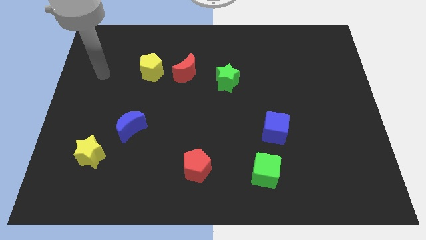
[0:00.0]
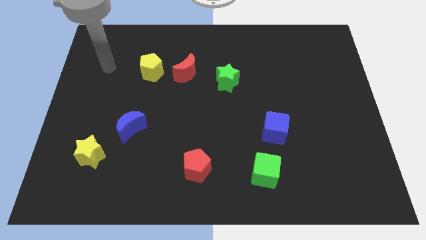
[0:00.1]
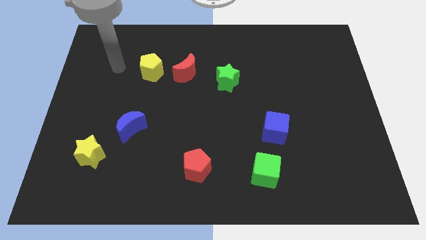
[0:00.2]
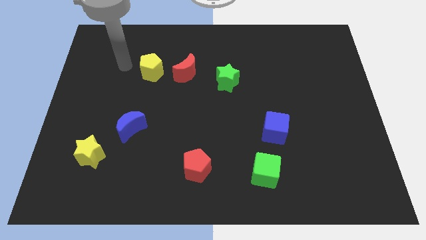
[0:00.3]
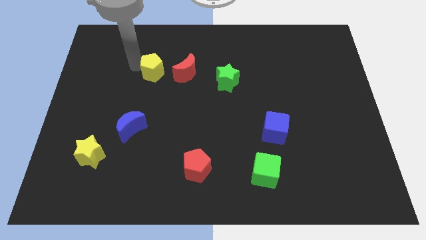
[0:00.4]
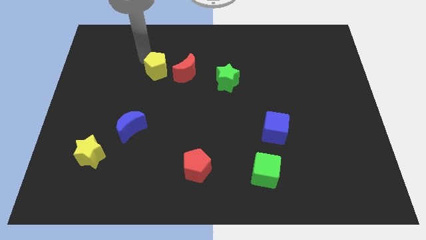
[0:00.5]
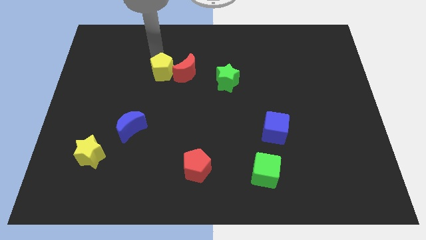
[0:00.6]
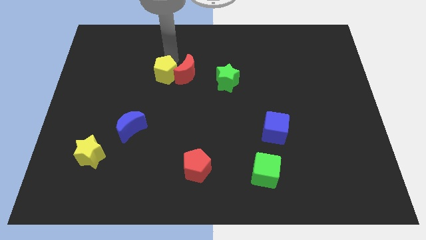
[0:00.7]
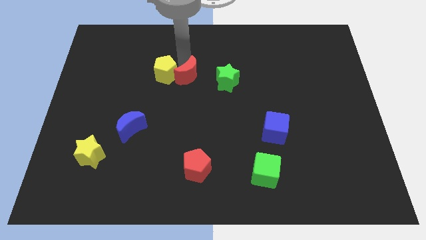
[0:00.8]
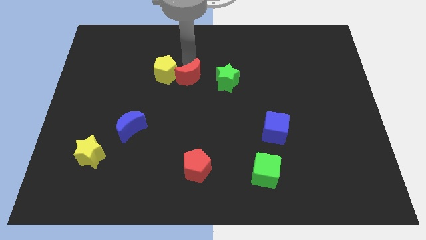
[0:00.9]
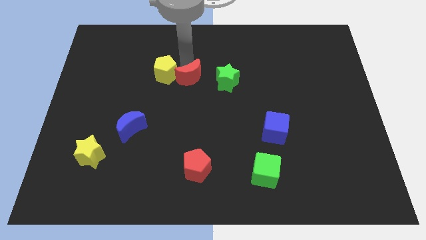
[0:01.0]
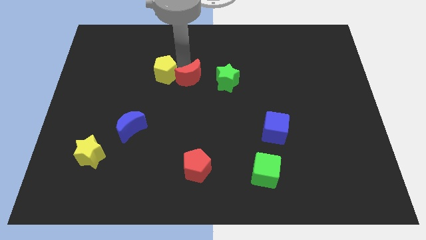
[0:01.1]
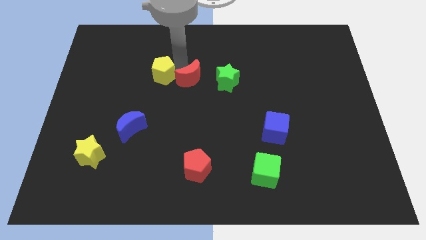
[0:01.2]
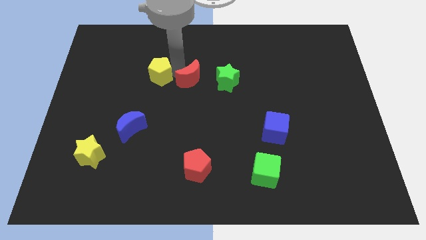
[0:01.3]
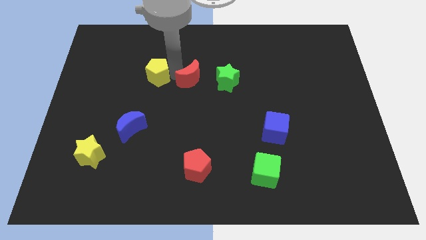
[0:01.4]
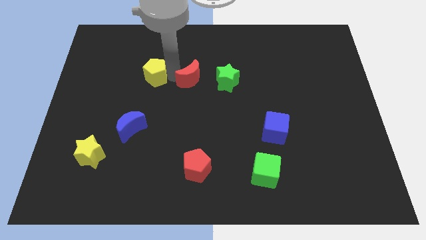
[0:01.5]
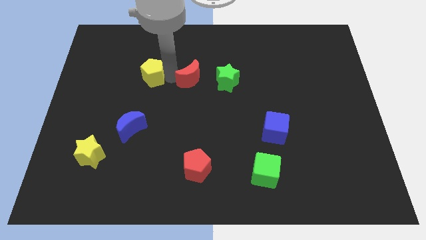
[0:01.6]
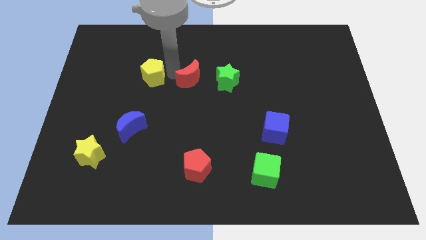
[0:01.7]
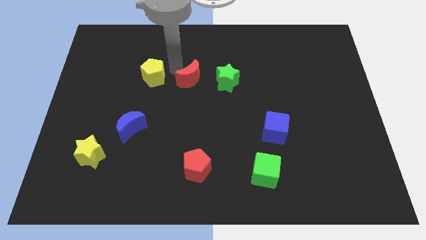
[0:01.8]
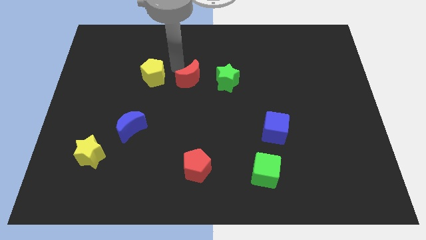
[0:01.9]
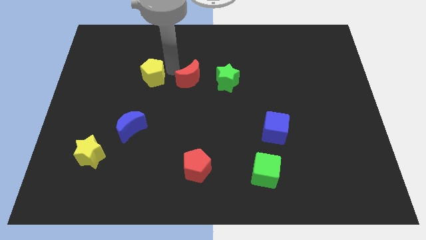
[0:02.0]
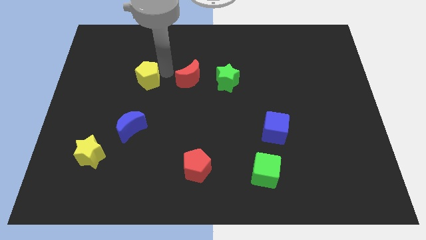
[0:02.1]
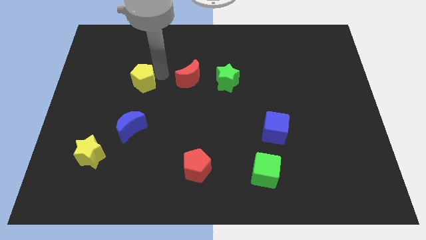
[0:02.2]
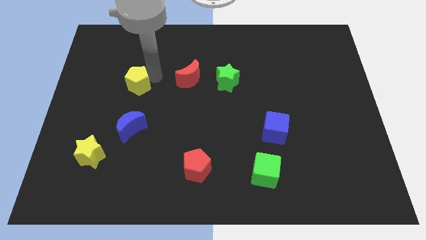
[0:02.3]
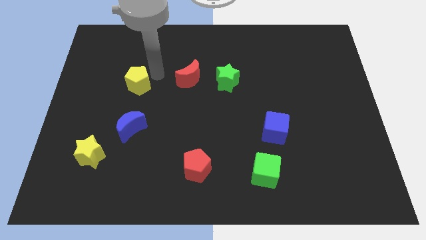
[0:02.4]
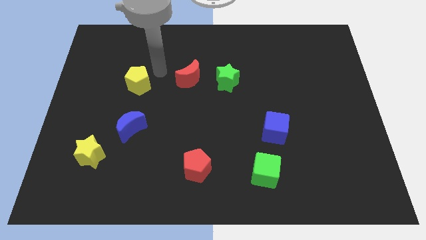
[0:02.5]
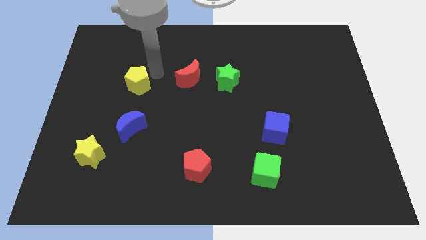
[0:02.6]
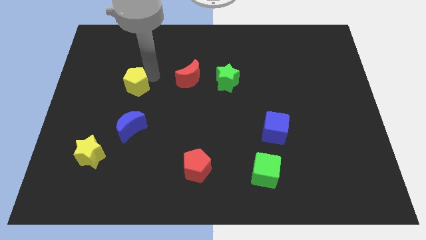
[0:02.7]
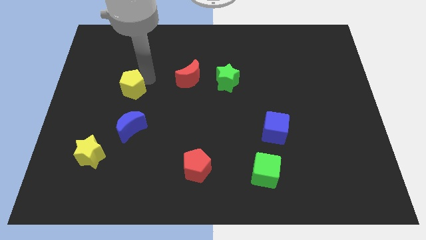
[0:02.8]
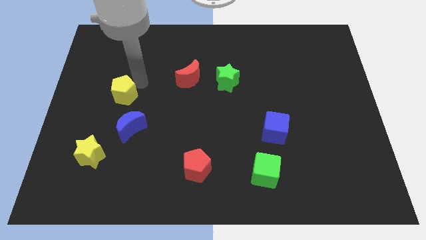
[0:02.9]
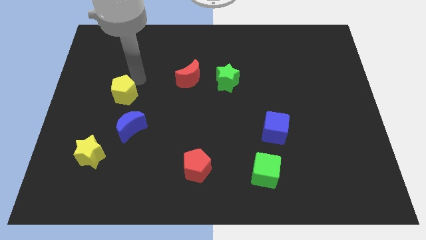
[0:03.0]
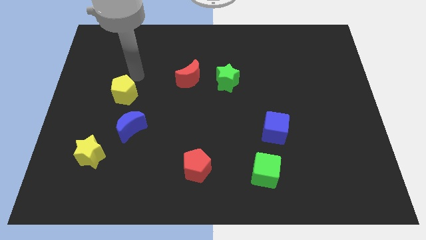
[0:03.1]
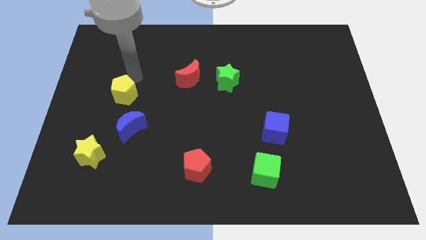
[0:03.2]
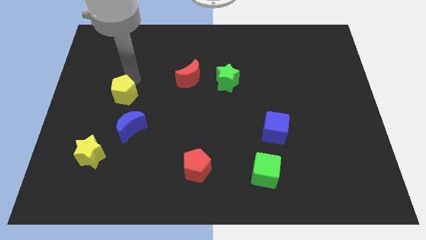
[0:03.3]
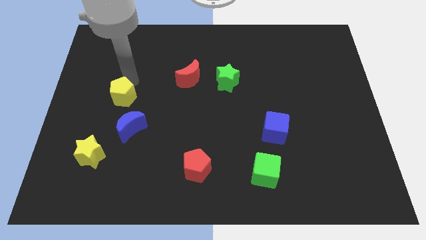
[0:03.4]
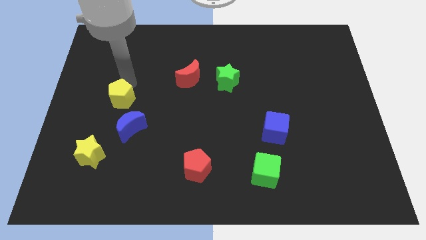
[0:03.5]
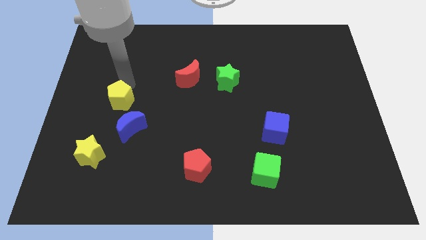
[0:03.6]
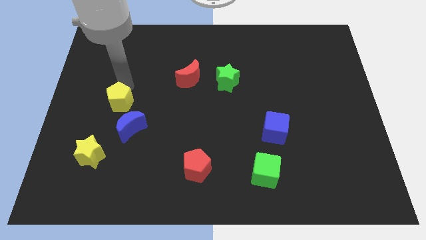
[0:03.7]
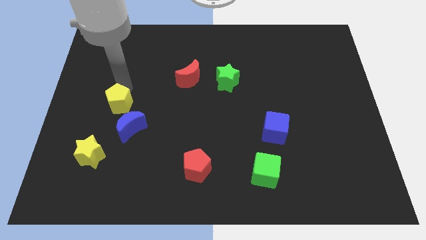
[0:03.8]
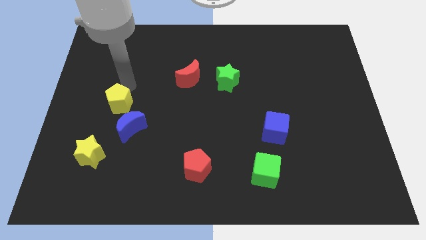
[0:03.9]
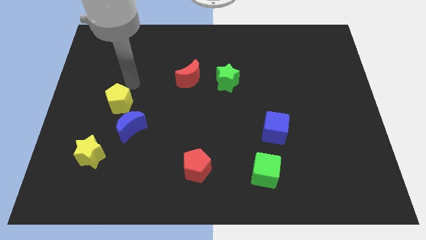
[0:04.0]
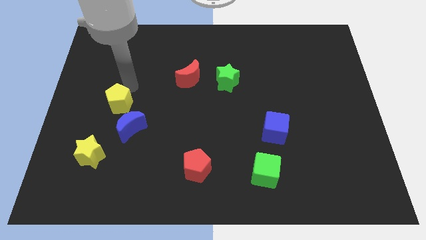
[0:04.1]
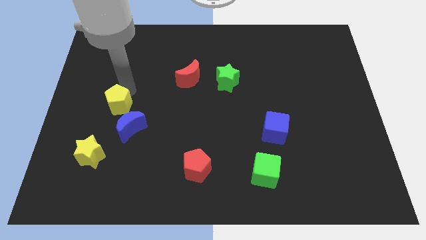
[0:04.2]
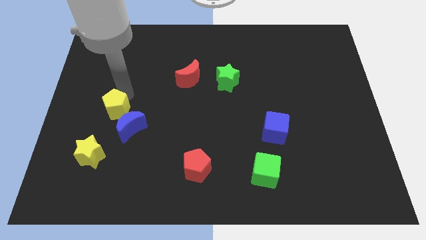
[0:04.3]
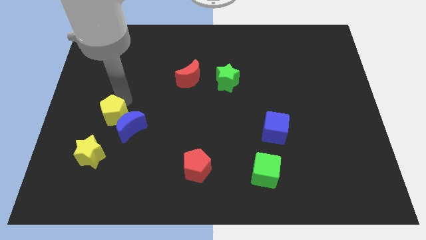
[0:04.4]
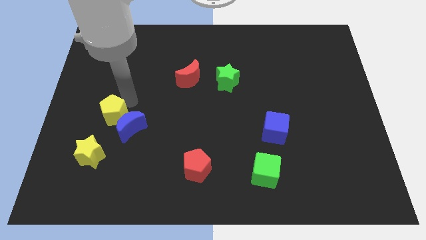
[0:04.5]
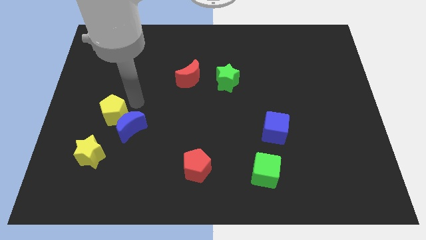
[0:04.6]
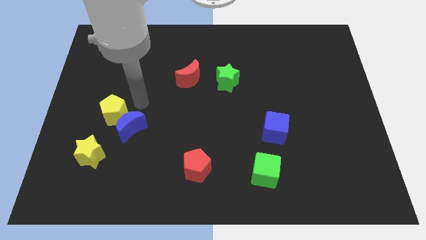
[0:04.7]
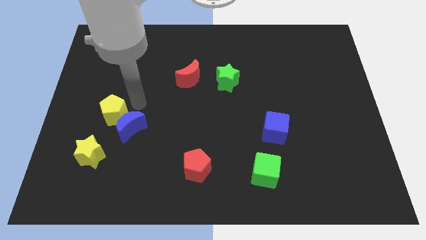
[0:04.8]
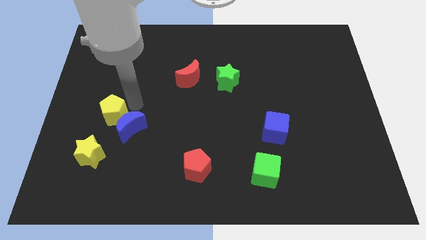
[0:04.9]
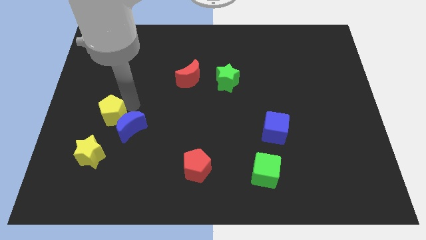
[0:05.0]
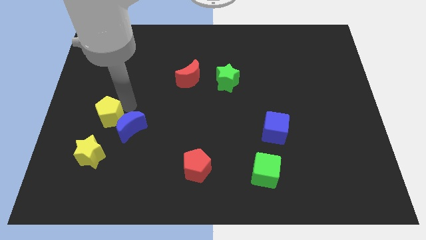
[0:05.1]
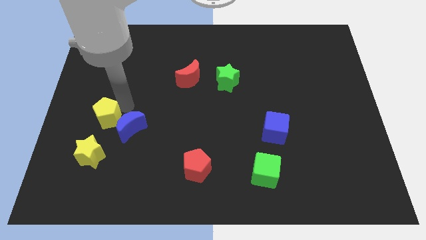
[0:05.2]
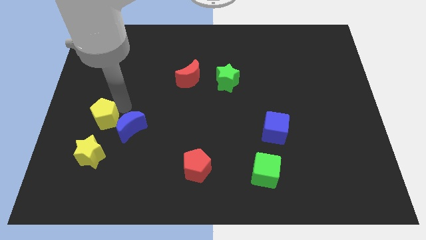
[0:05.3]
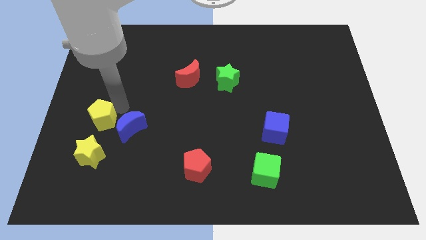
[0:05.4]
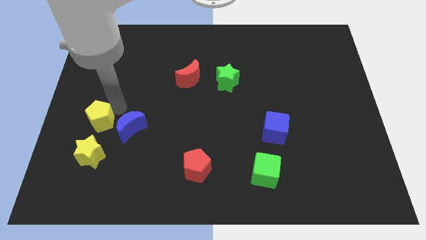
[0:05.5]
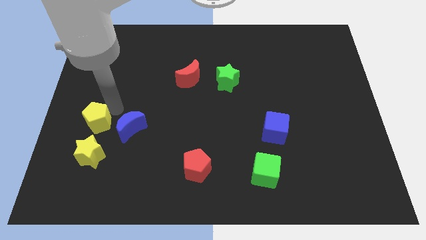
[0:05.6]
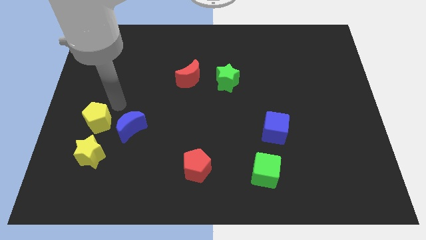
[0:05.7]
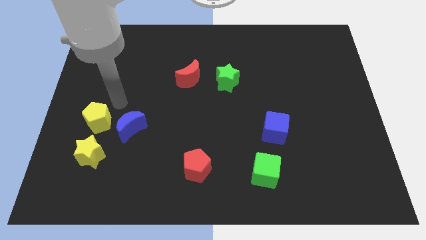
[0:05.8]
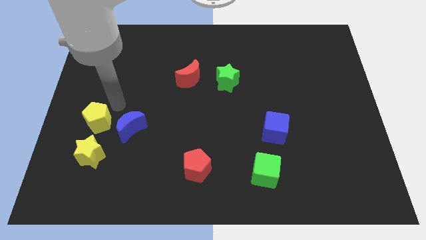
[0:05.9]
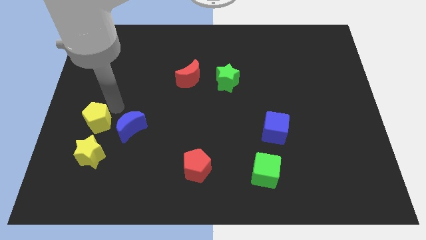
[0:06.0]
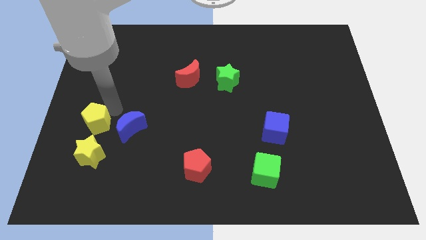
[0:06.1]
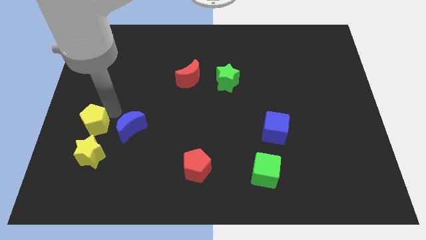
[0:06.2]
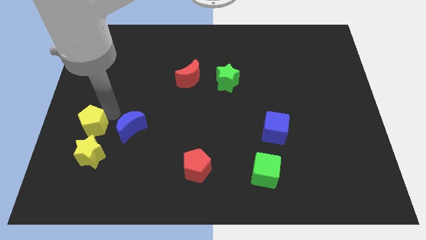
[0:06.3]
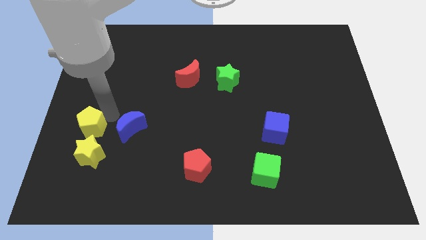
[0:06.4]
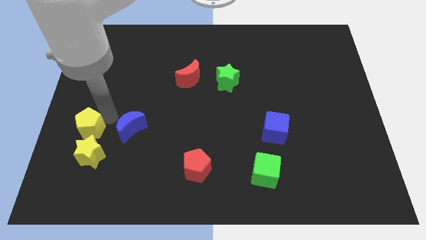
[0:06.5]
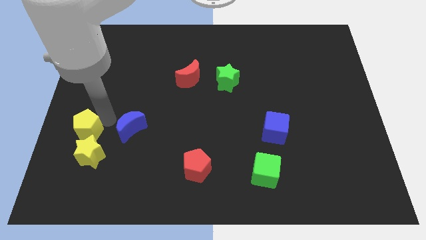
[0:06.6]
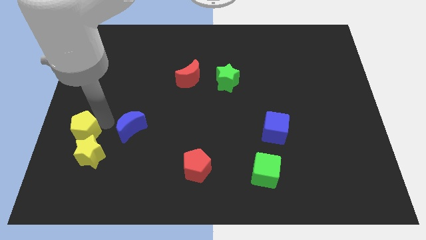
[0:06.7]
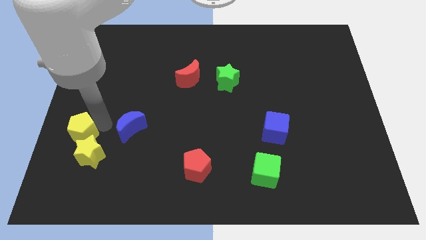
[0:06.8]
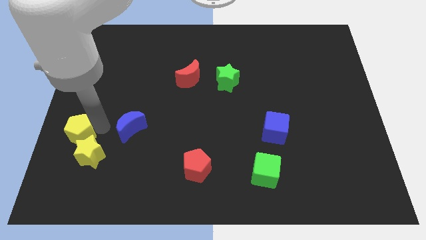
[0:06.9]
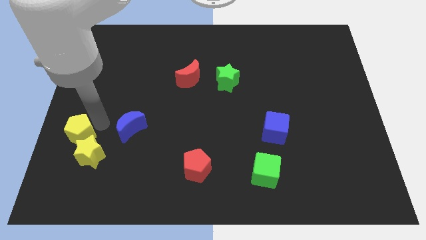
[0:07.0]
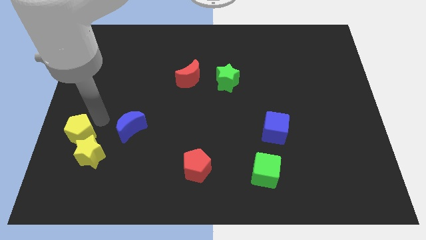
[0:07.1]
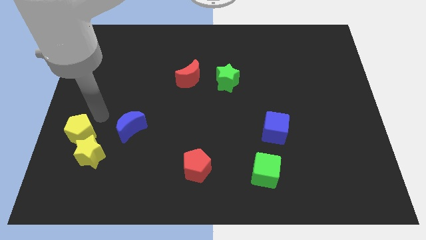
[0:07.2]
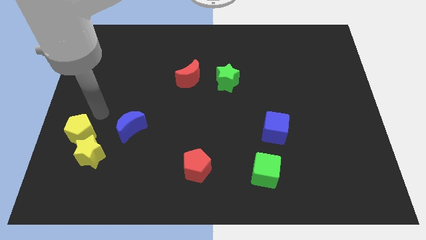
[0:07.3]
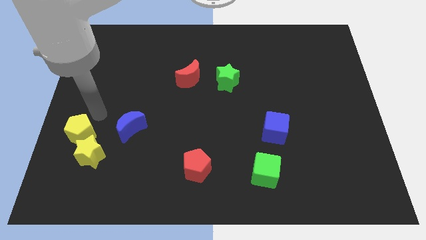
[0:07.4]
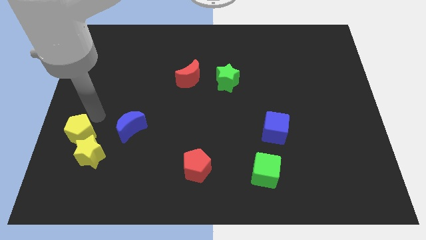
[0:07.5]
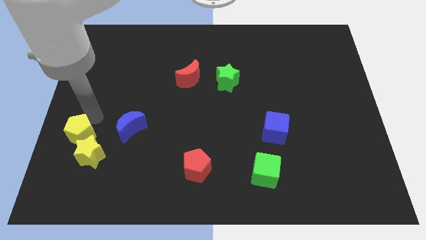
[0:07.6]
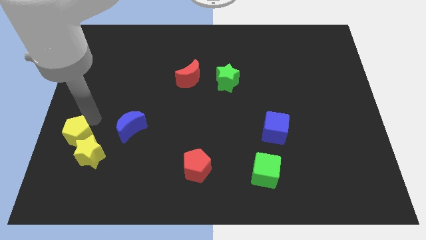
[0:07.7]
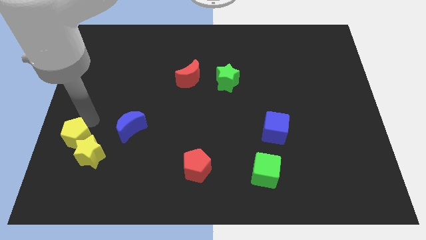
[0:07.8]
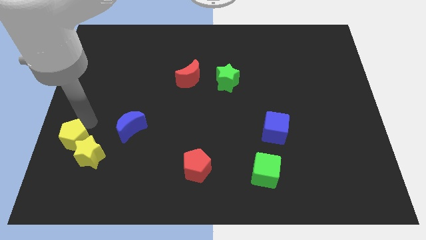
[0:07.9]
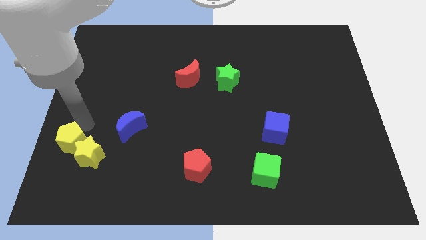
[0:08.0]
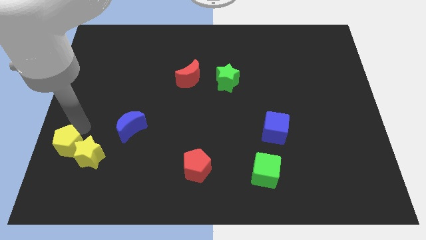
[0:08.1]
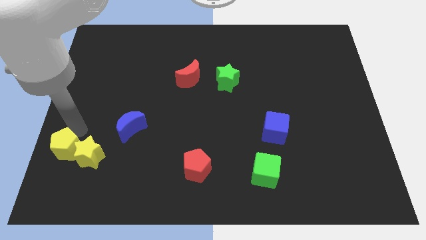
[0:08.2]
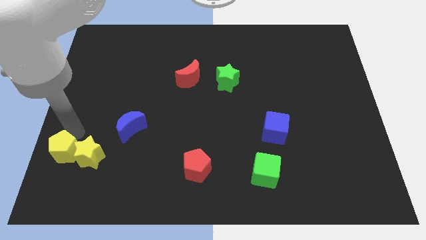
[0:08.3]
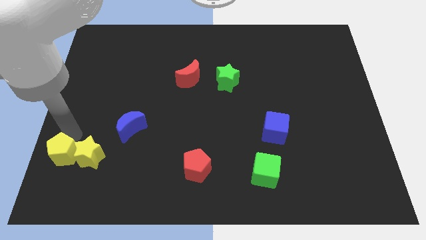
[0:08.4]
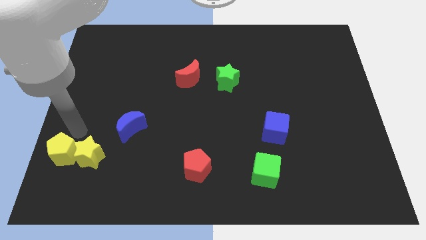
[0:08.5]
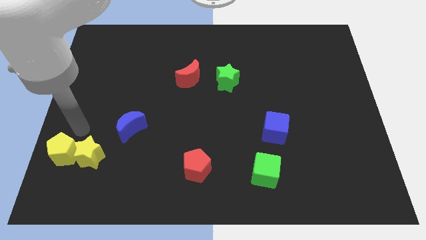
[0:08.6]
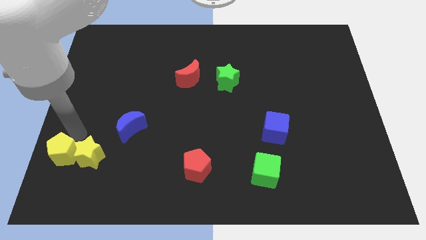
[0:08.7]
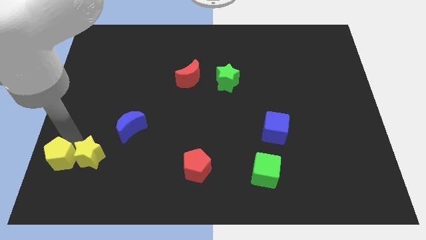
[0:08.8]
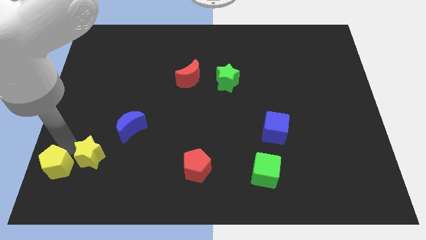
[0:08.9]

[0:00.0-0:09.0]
push the yellow pentagon to the bottom left
